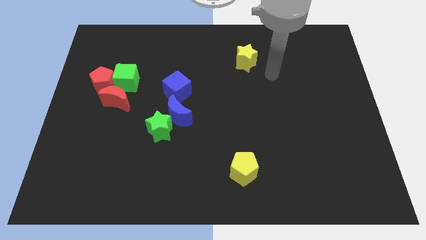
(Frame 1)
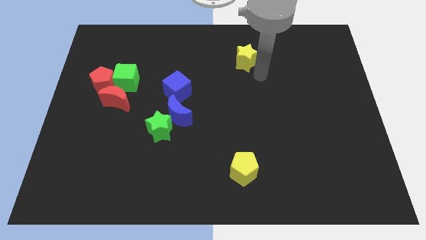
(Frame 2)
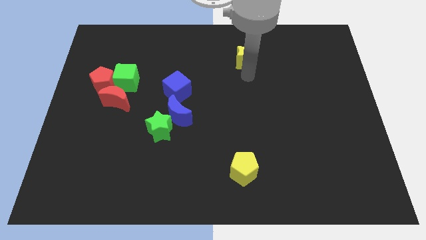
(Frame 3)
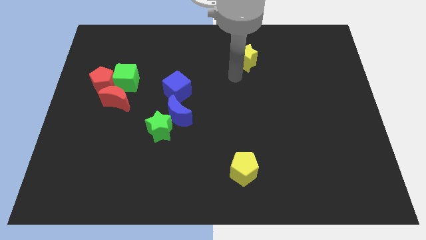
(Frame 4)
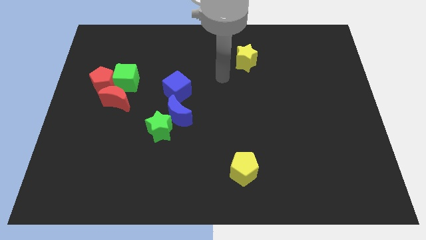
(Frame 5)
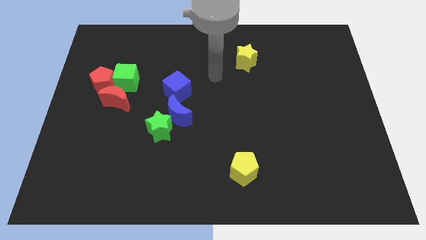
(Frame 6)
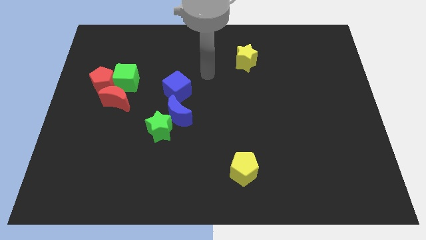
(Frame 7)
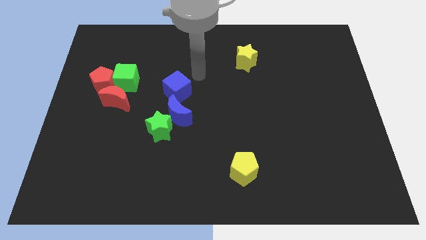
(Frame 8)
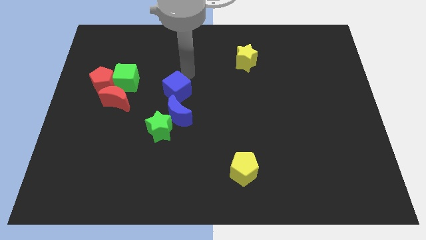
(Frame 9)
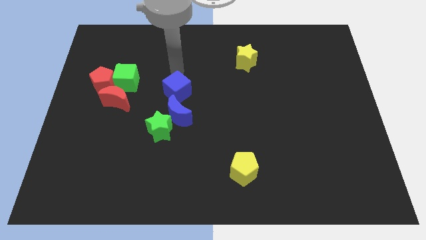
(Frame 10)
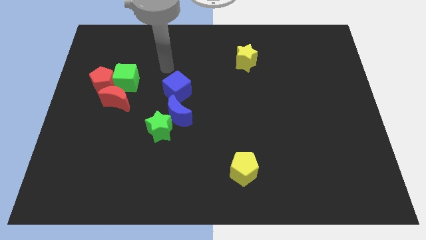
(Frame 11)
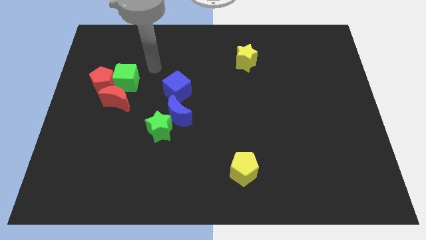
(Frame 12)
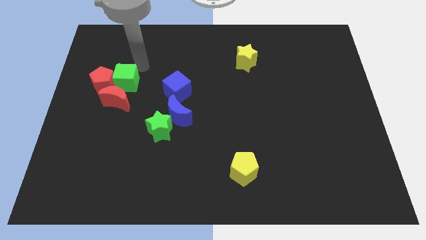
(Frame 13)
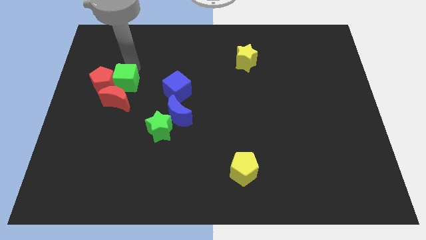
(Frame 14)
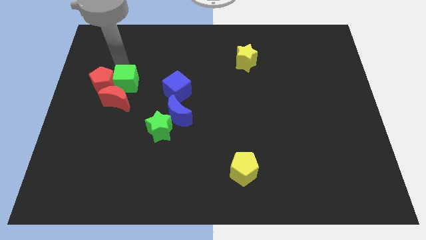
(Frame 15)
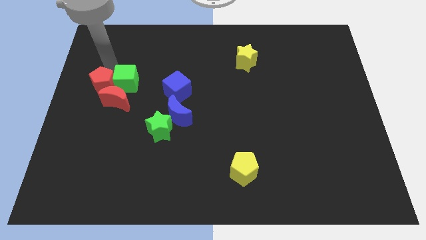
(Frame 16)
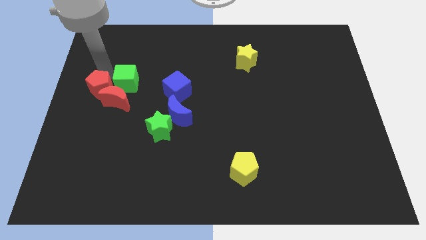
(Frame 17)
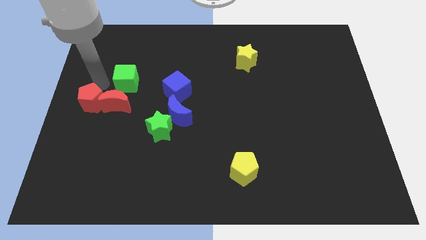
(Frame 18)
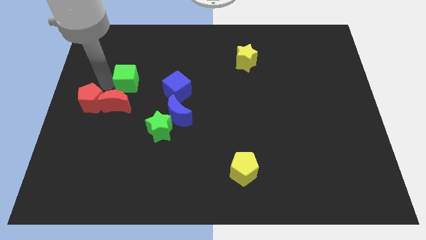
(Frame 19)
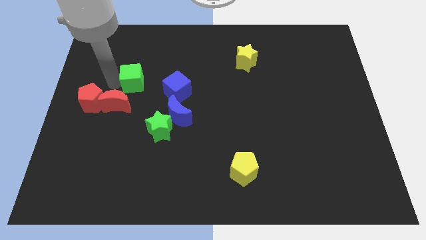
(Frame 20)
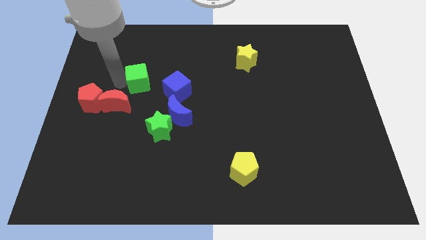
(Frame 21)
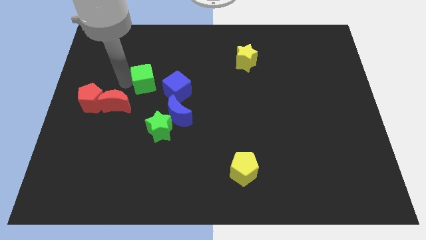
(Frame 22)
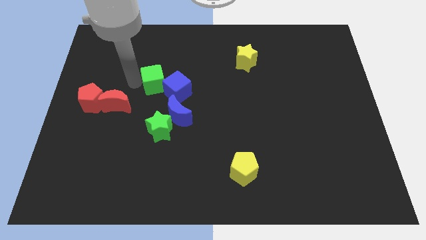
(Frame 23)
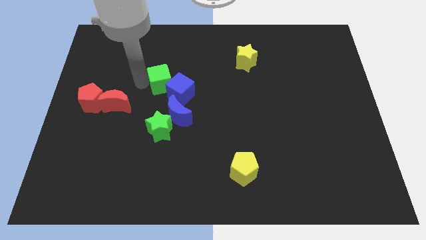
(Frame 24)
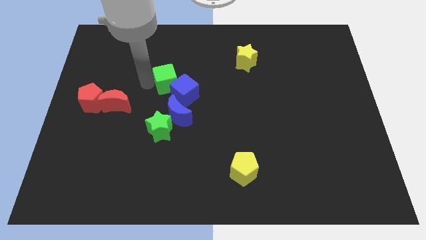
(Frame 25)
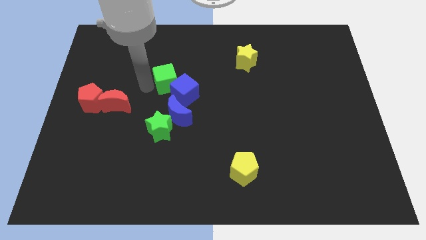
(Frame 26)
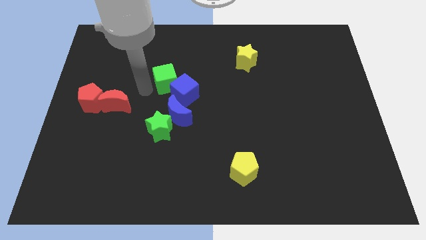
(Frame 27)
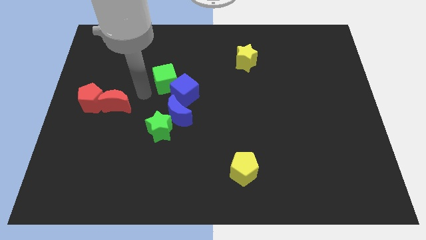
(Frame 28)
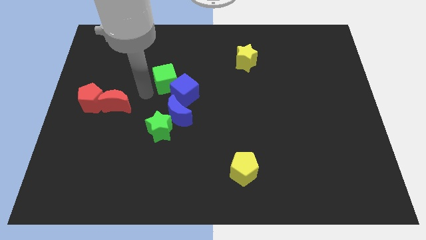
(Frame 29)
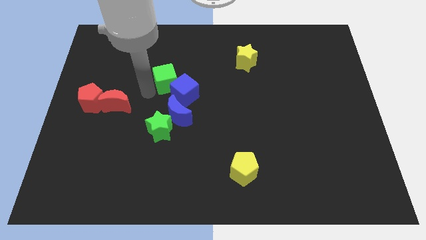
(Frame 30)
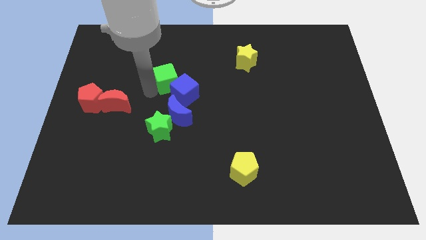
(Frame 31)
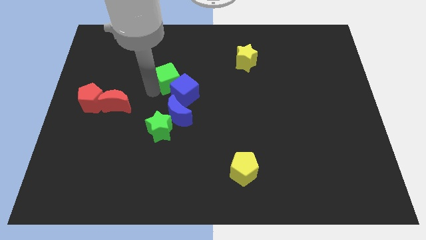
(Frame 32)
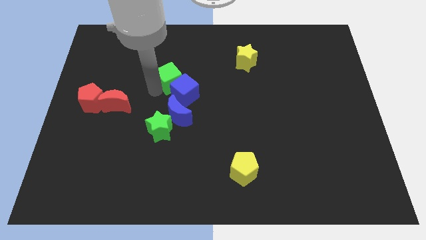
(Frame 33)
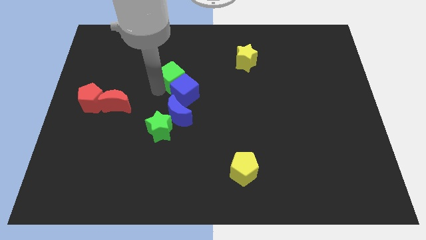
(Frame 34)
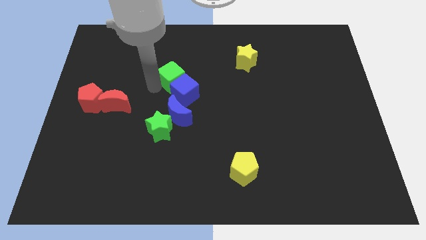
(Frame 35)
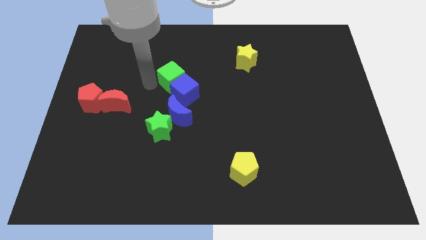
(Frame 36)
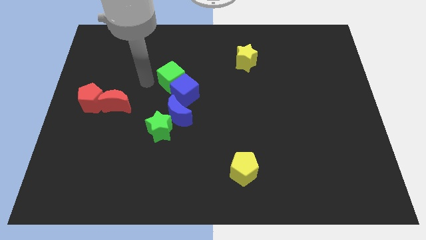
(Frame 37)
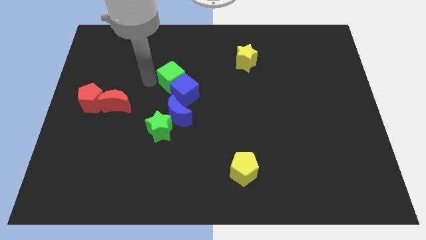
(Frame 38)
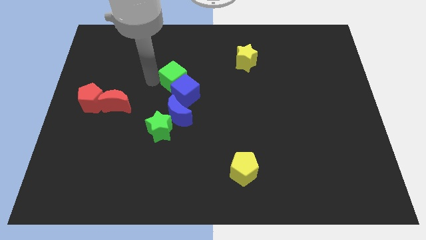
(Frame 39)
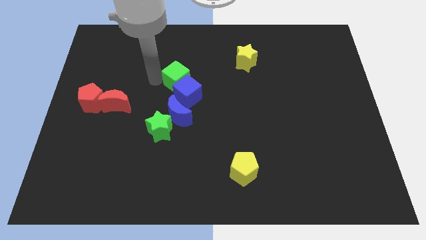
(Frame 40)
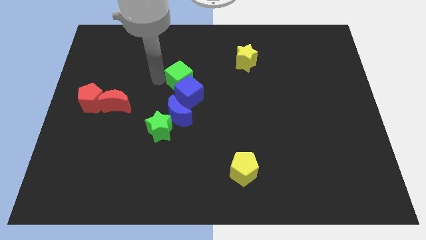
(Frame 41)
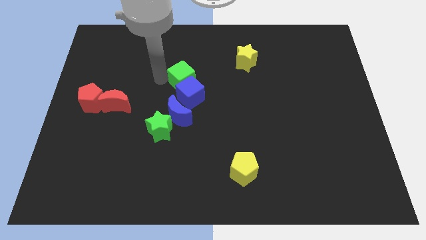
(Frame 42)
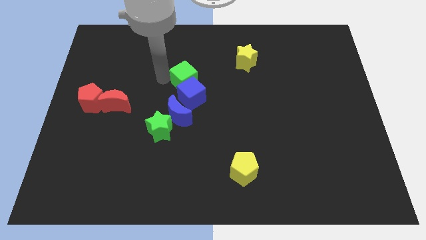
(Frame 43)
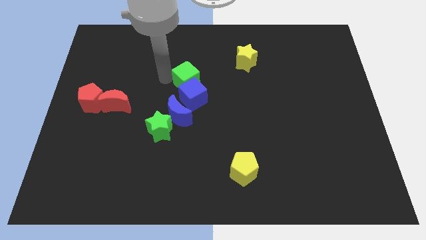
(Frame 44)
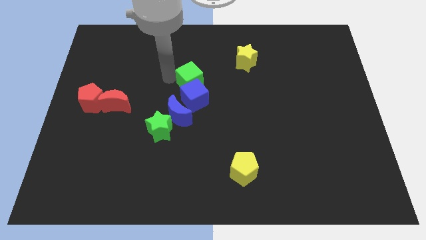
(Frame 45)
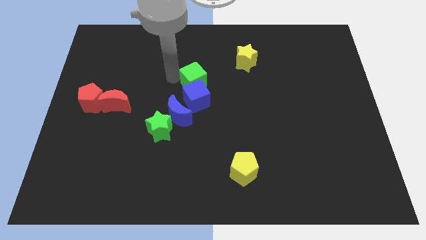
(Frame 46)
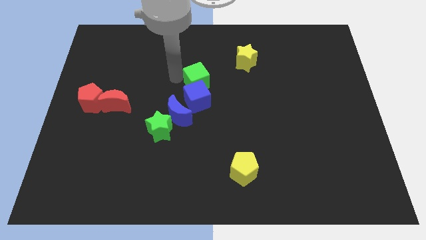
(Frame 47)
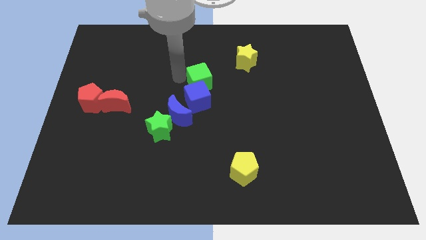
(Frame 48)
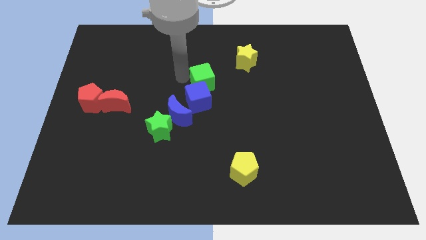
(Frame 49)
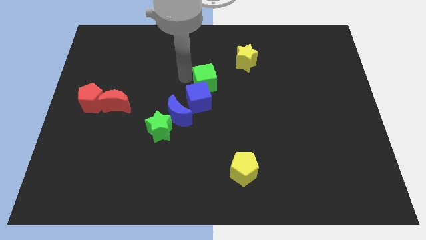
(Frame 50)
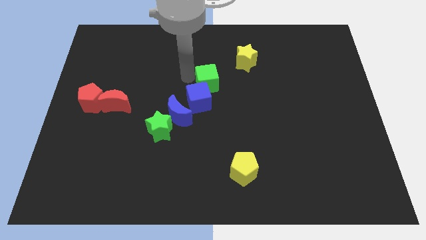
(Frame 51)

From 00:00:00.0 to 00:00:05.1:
move the green cube right

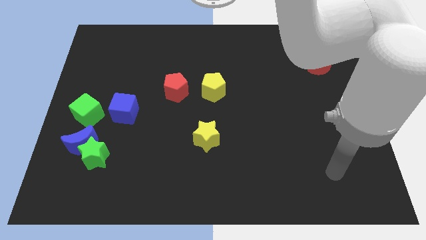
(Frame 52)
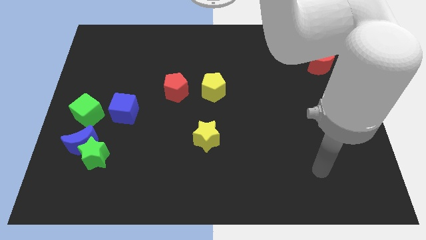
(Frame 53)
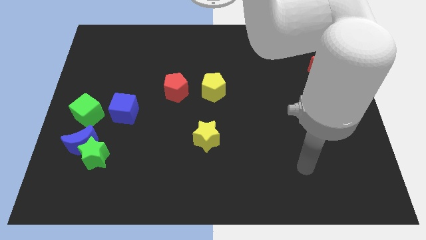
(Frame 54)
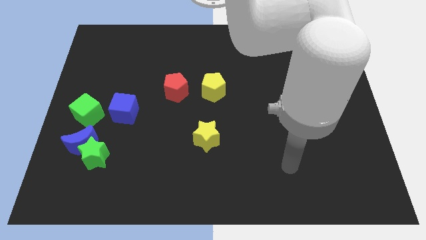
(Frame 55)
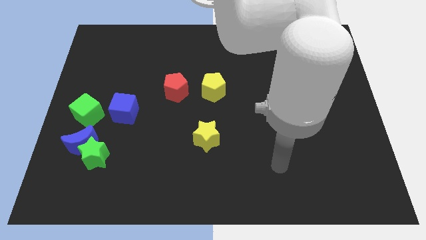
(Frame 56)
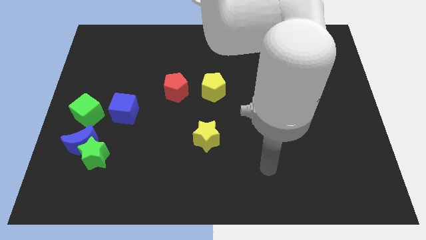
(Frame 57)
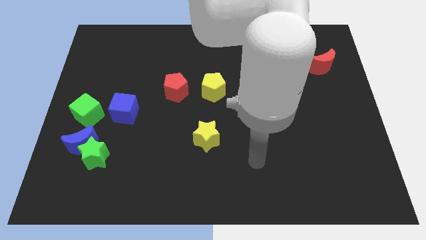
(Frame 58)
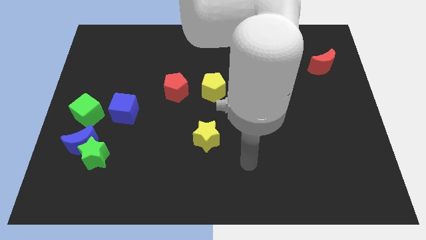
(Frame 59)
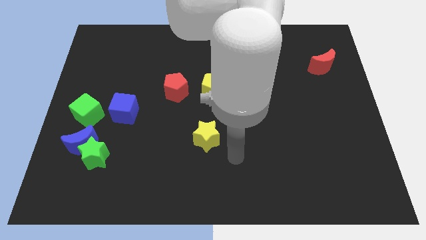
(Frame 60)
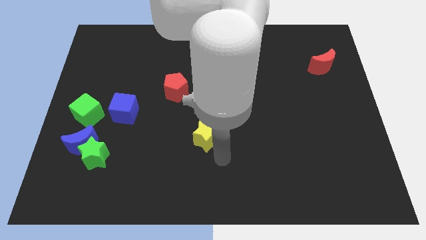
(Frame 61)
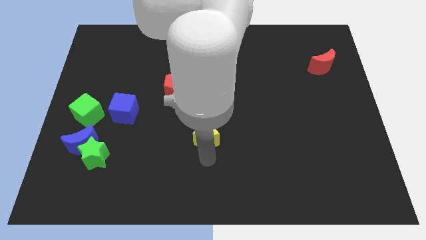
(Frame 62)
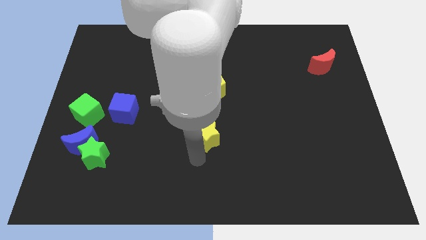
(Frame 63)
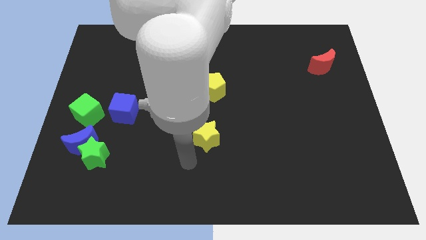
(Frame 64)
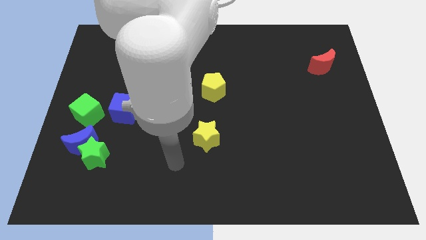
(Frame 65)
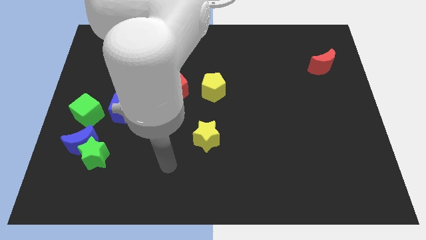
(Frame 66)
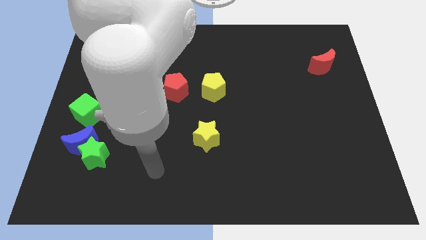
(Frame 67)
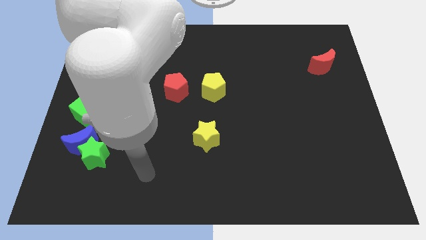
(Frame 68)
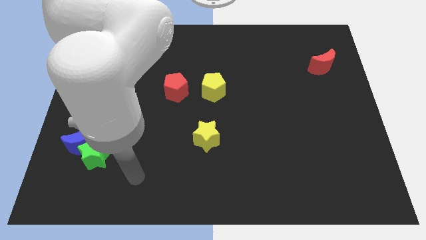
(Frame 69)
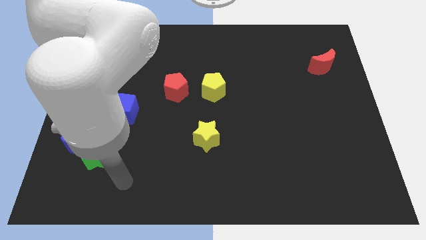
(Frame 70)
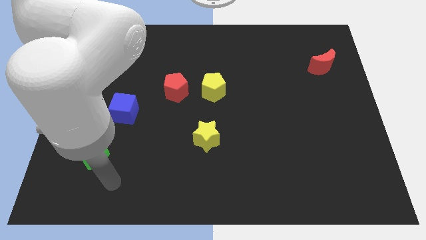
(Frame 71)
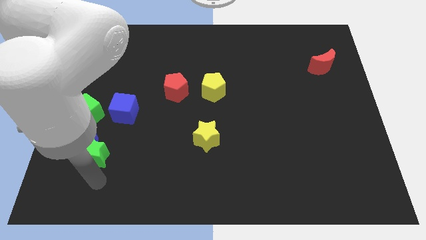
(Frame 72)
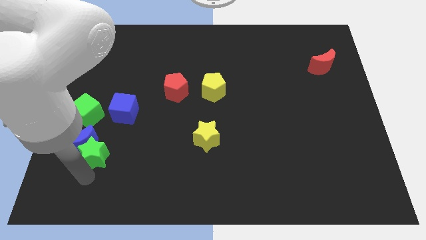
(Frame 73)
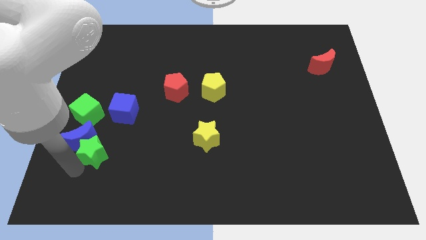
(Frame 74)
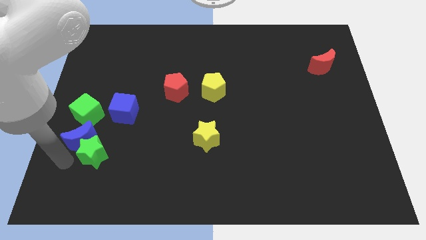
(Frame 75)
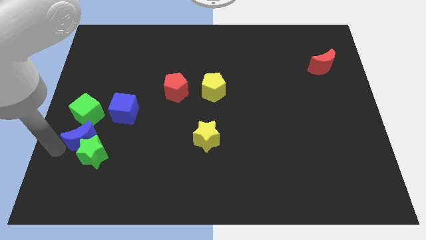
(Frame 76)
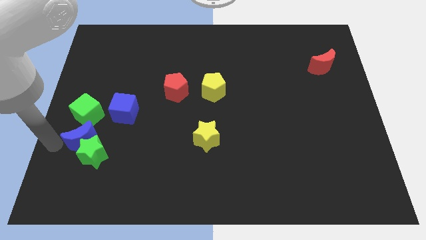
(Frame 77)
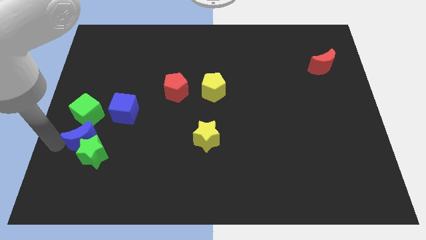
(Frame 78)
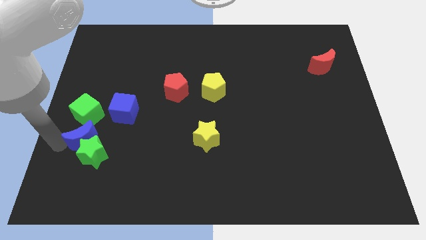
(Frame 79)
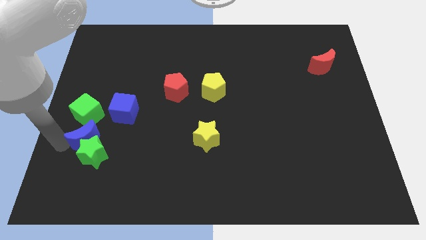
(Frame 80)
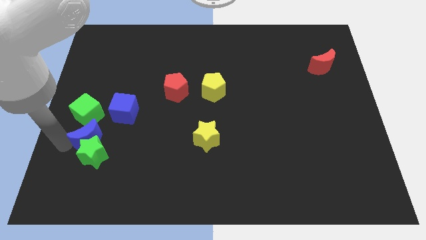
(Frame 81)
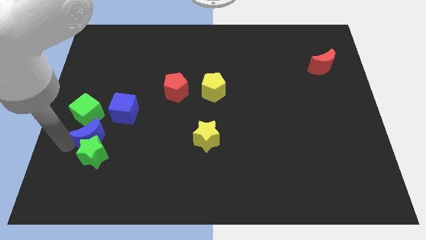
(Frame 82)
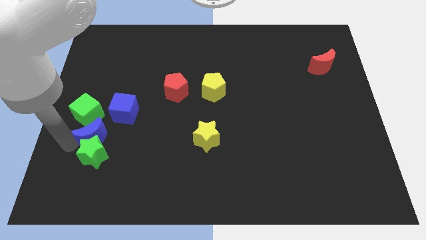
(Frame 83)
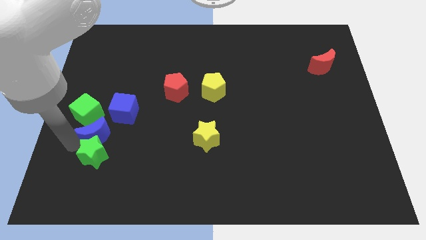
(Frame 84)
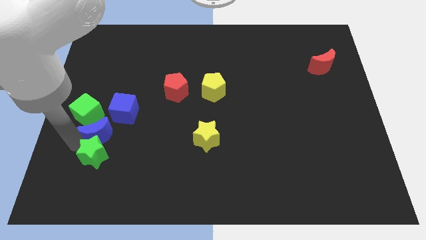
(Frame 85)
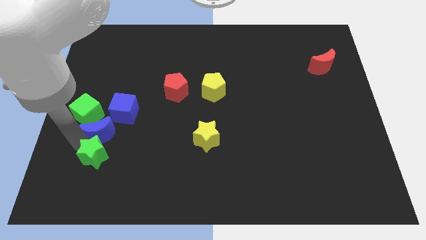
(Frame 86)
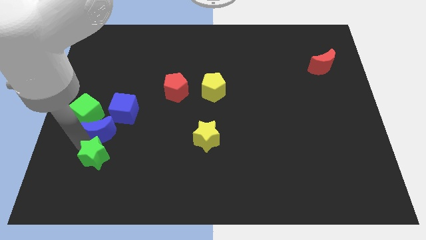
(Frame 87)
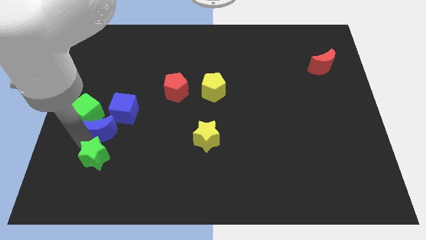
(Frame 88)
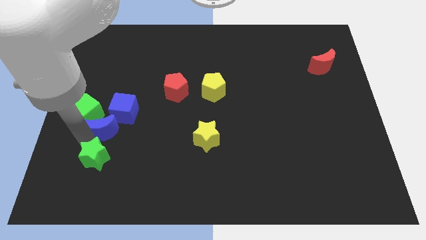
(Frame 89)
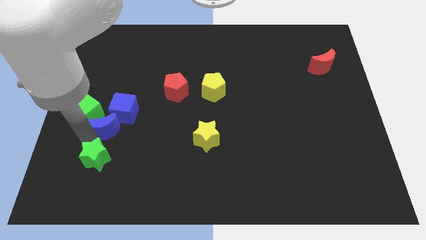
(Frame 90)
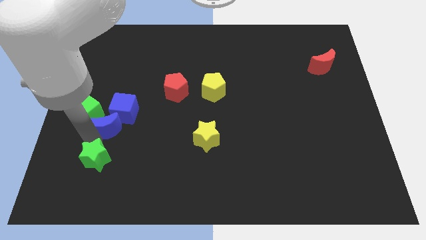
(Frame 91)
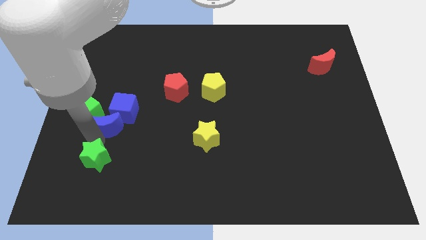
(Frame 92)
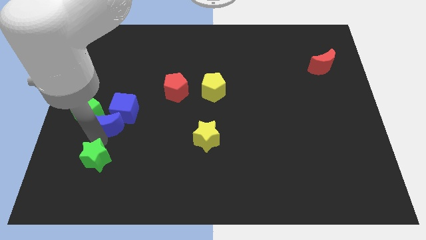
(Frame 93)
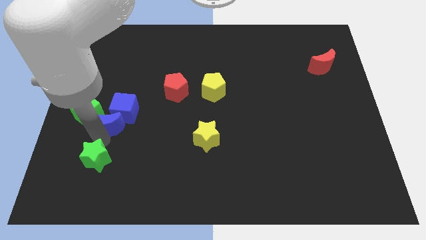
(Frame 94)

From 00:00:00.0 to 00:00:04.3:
slightly slide the blue moon upwards and right diagonally
